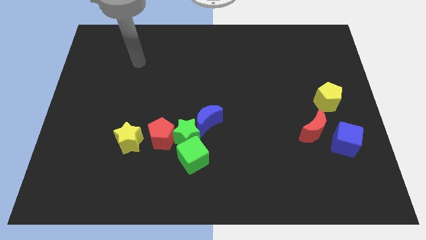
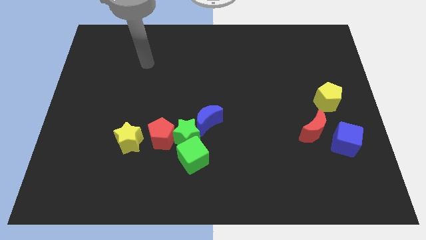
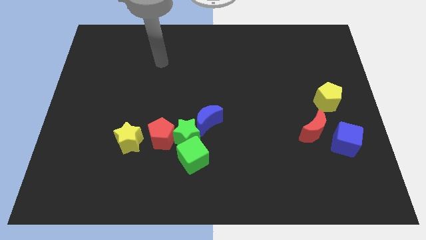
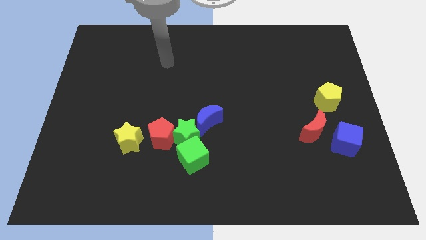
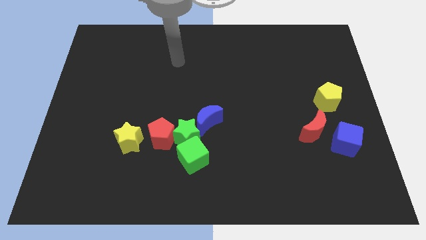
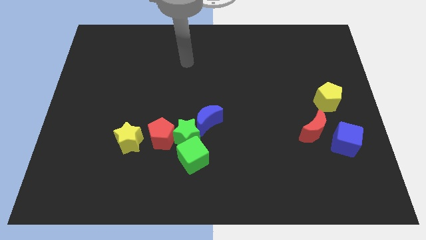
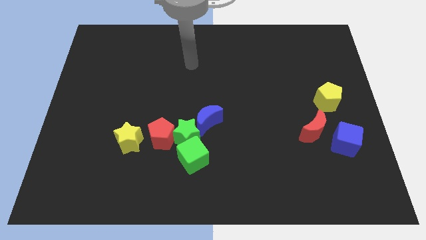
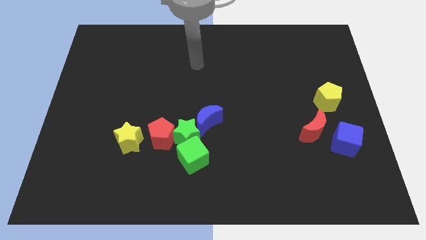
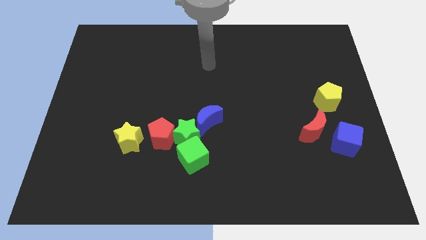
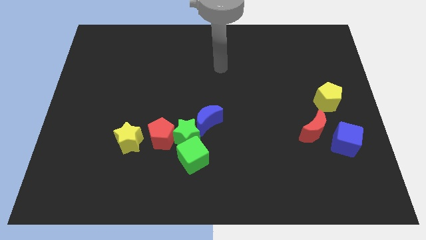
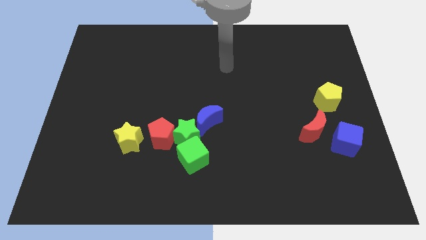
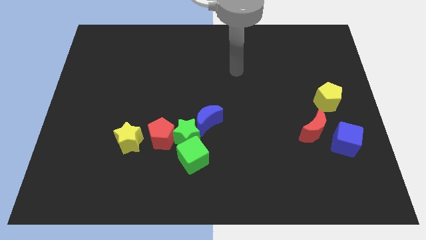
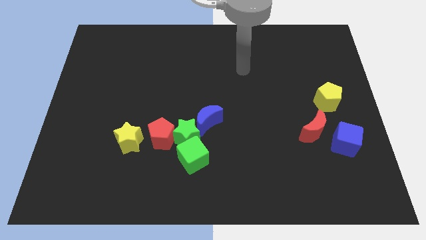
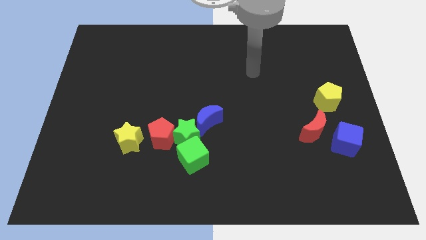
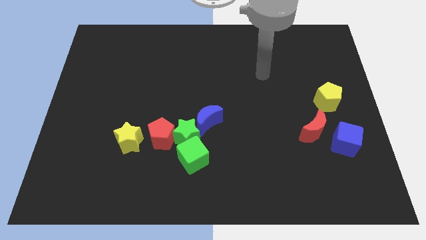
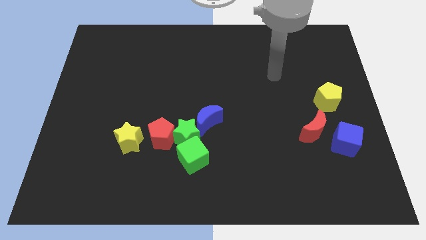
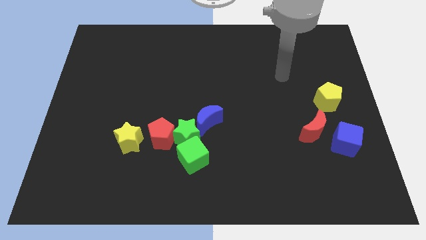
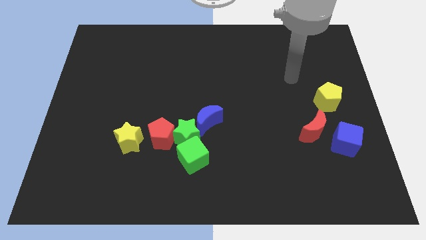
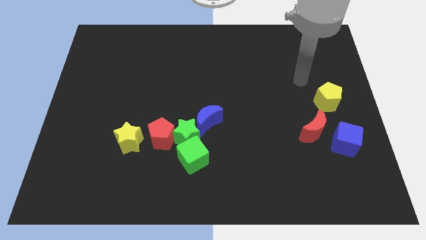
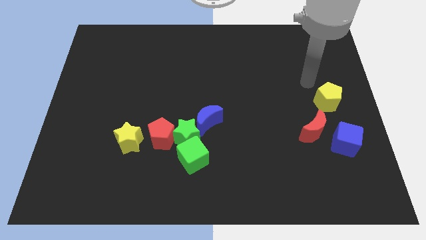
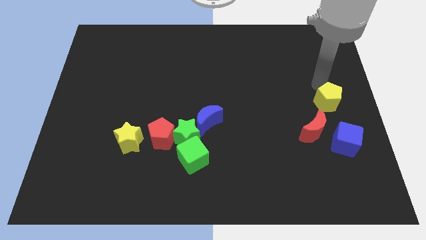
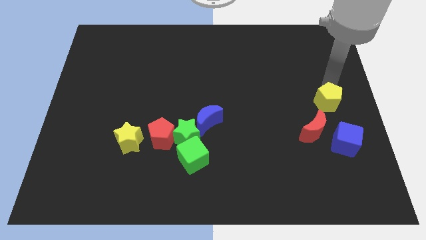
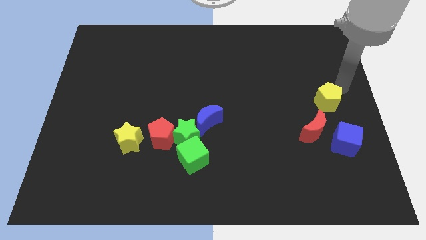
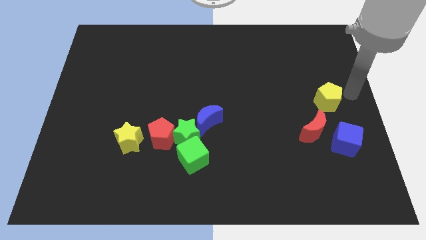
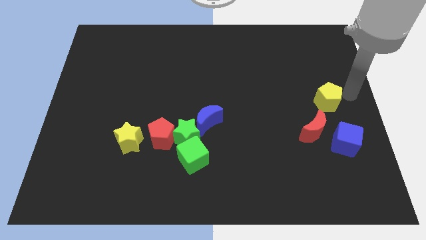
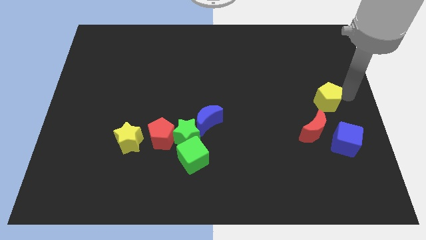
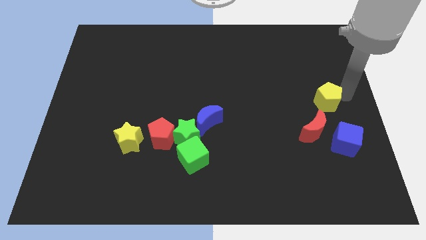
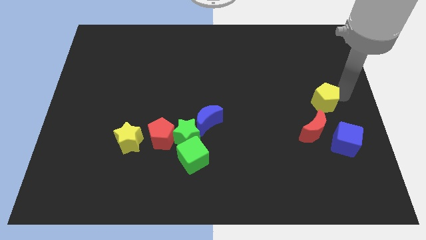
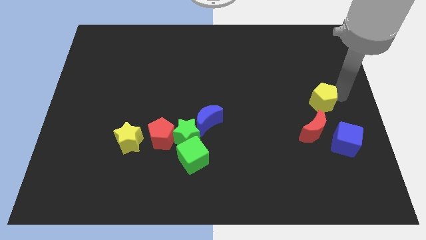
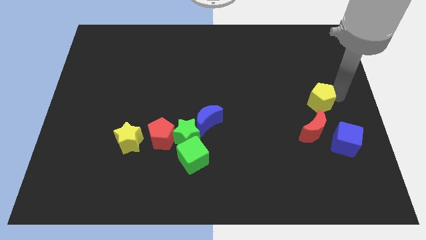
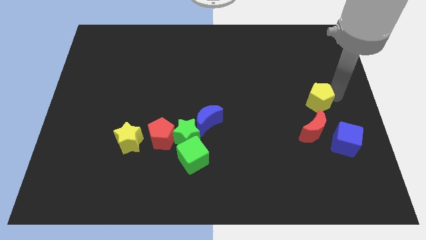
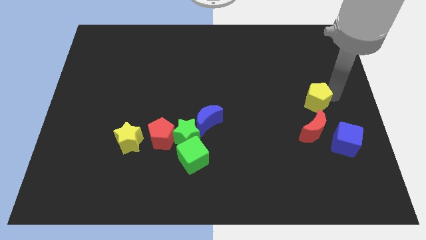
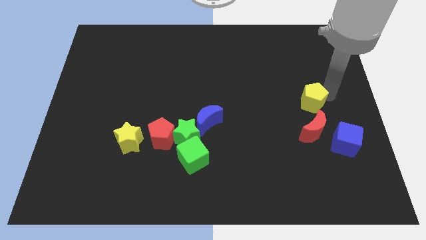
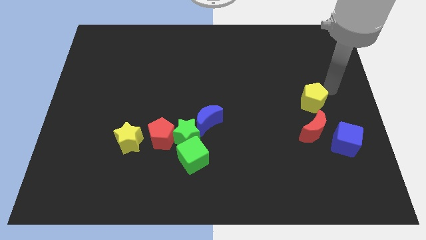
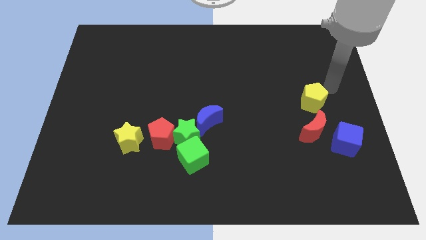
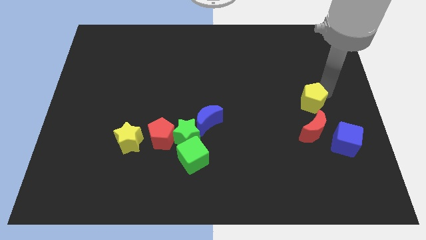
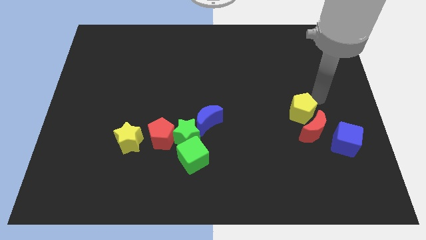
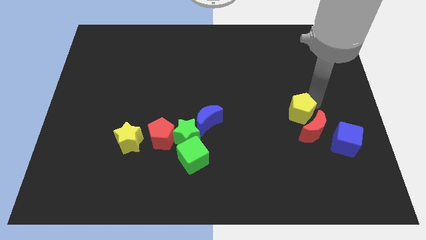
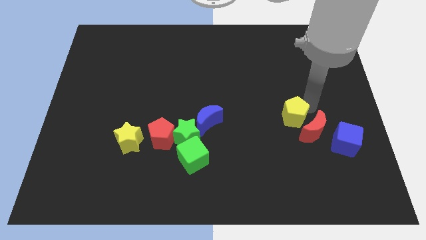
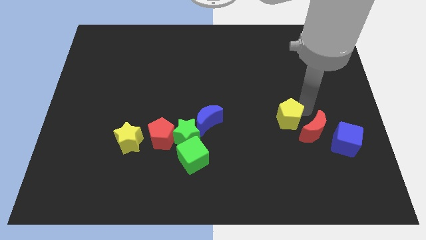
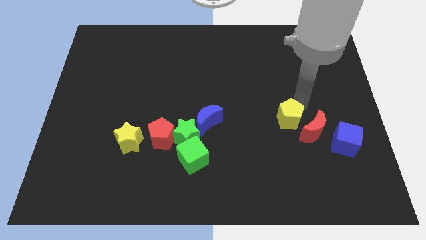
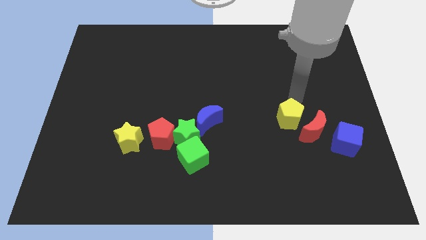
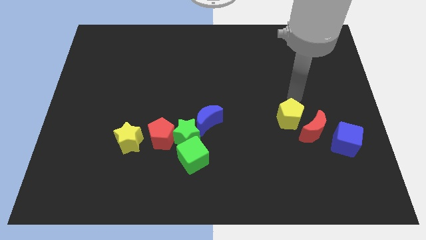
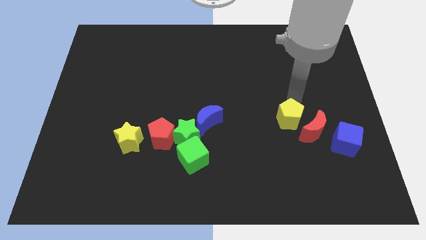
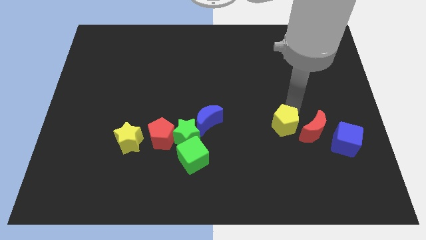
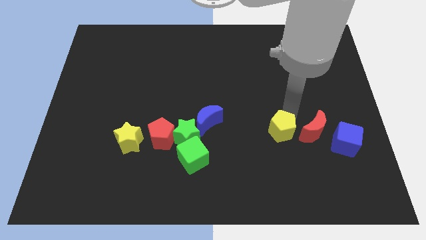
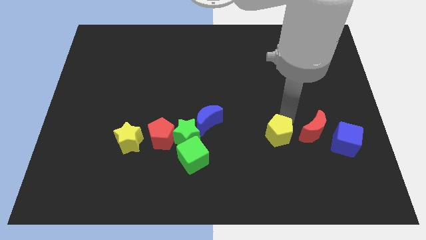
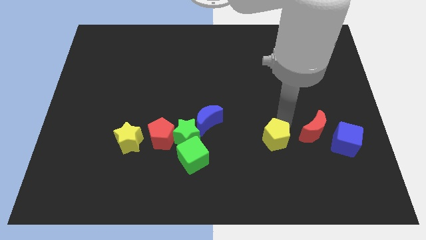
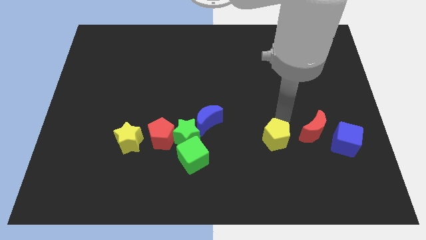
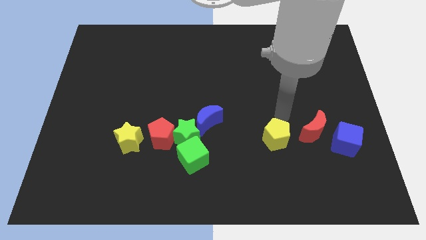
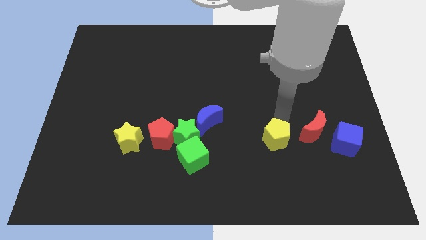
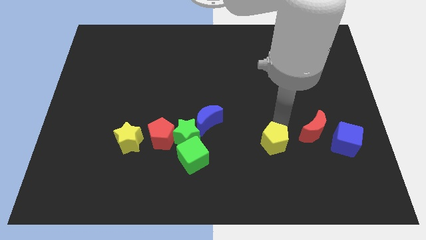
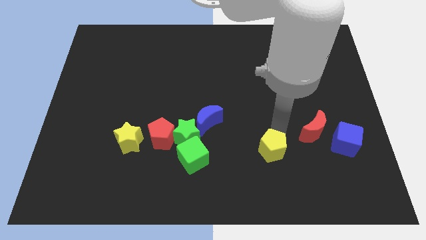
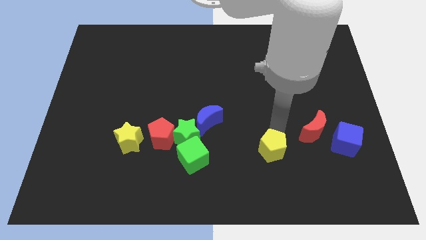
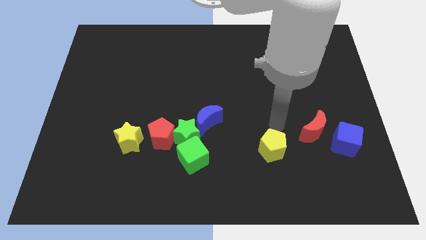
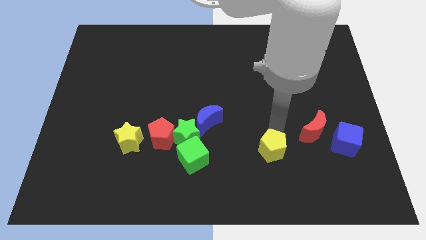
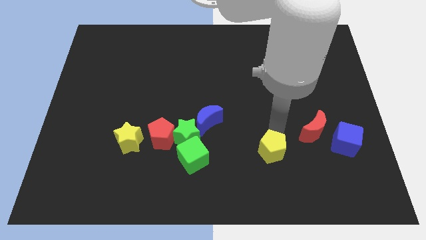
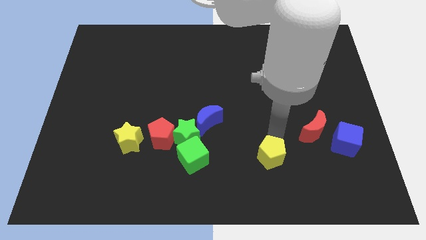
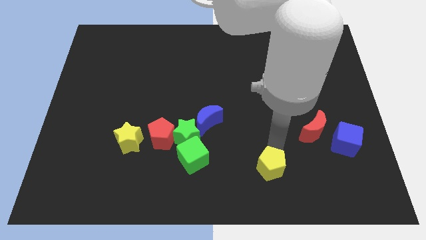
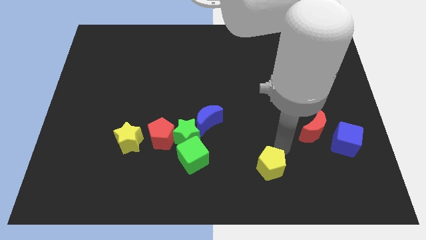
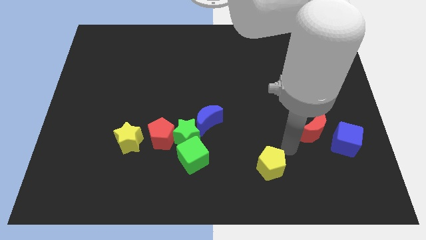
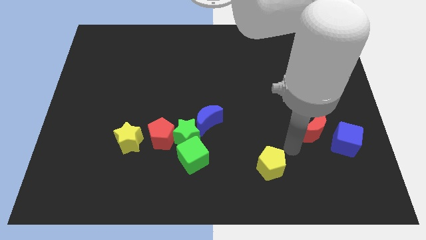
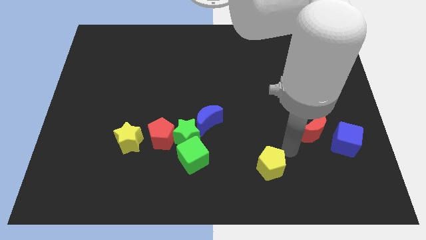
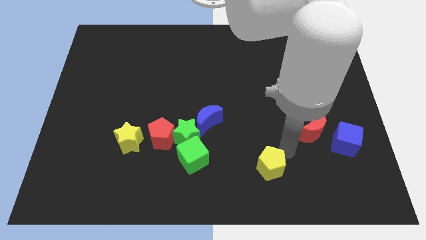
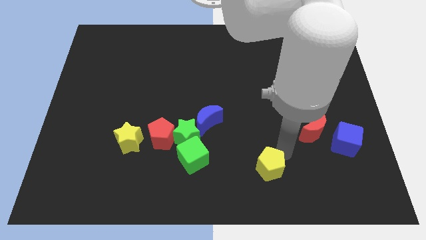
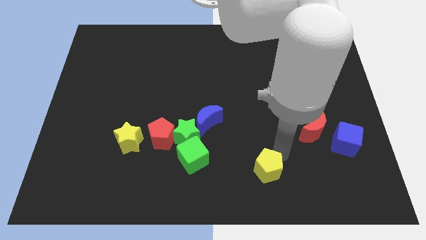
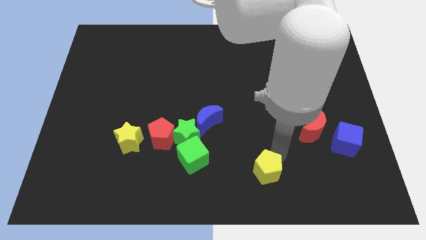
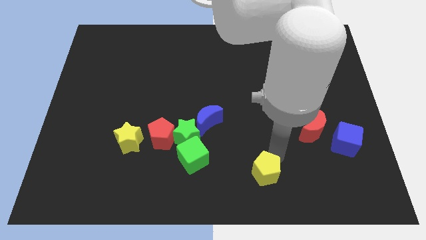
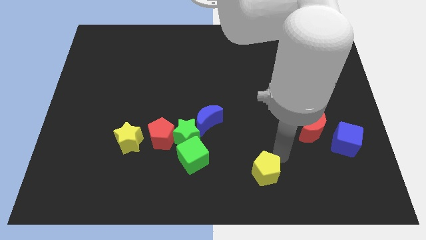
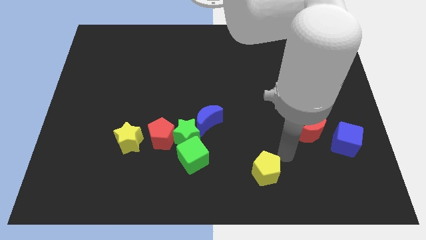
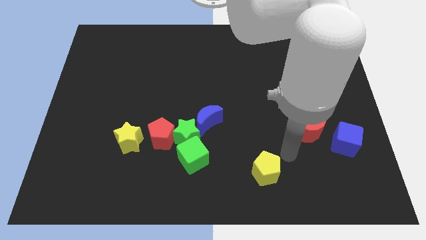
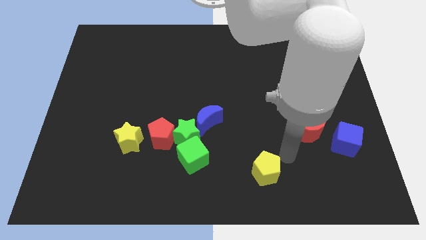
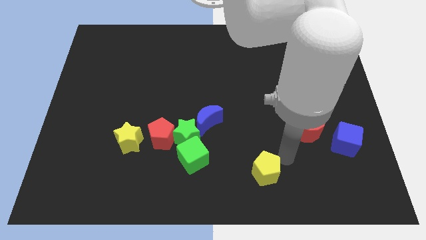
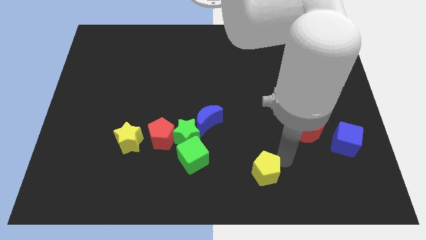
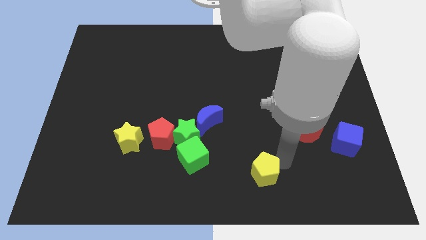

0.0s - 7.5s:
put the yellow pentagon to the bottom

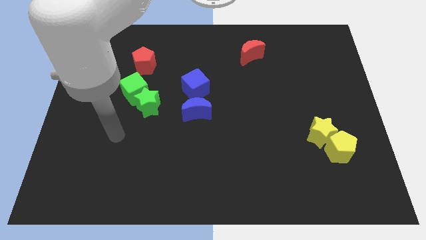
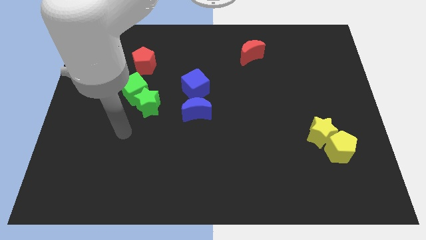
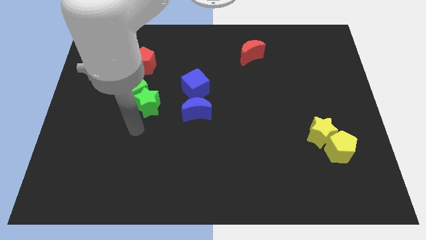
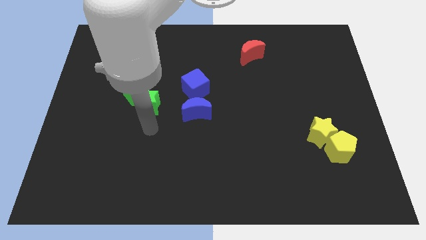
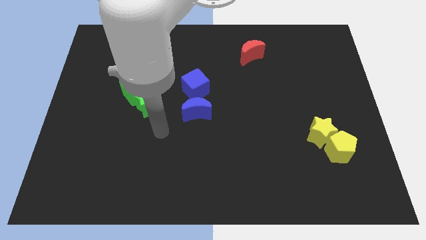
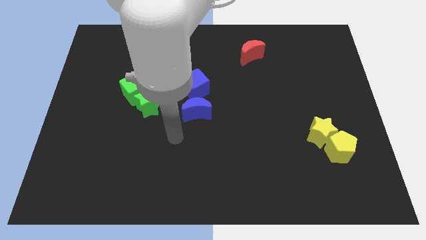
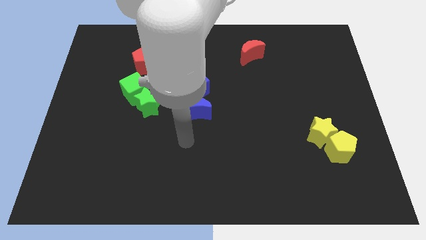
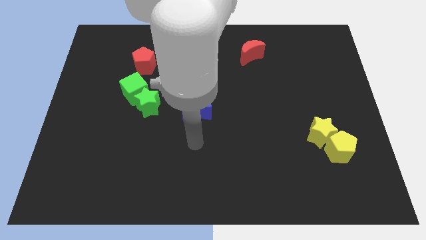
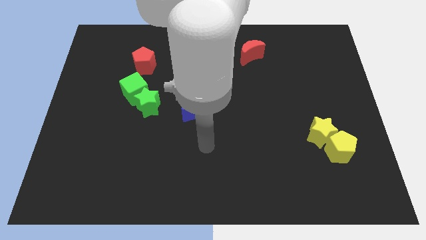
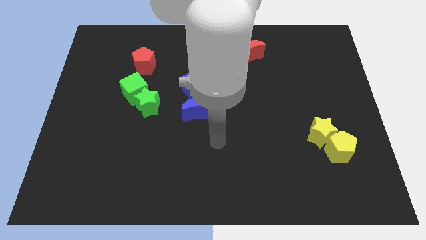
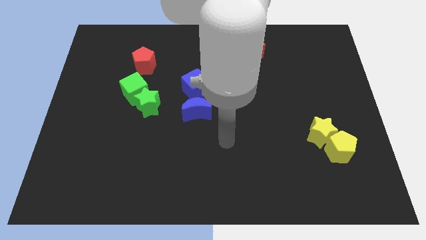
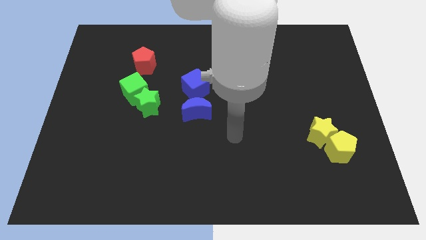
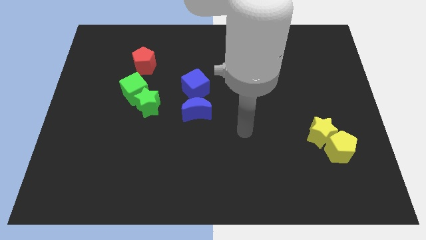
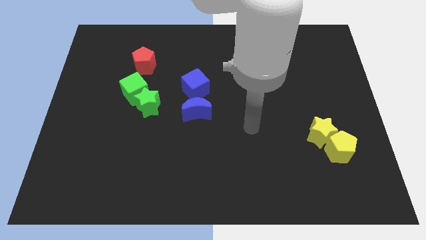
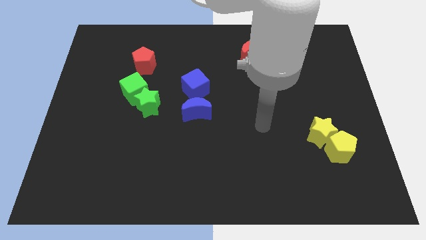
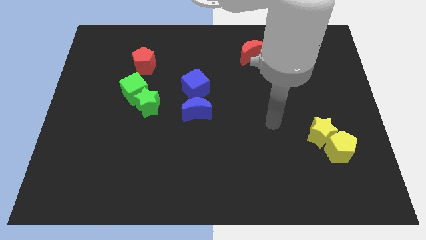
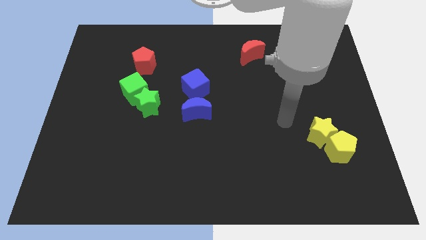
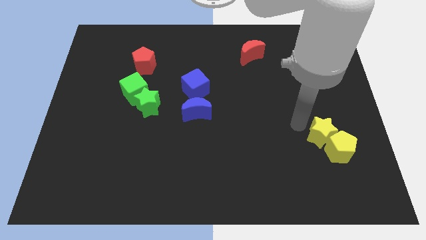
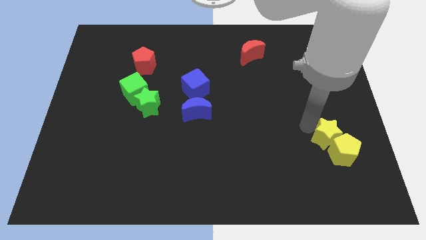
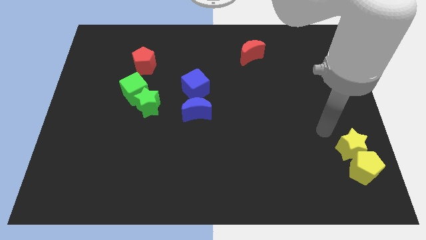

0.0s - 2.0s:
slide the yellow pentagon to the bottom right corner
